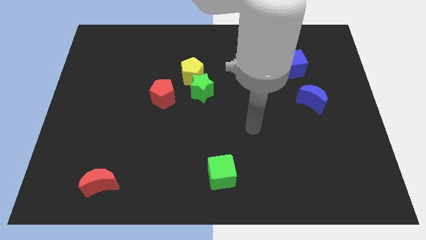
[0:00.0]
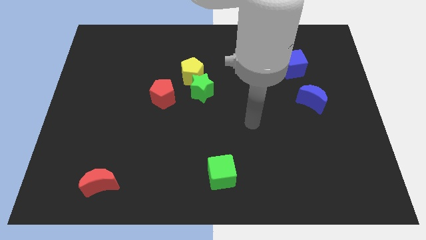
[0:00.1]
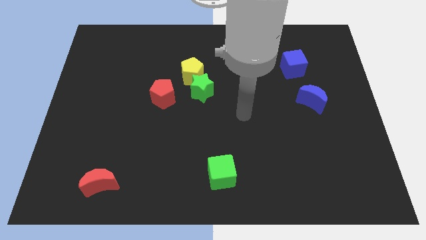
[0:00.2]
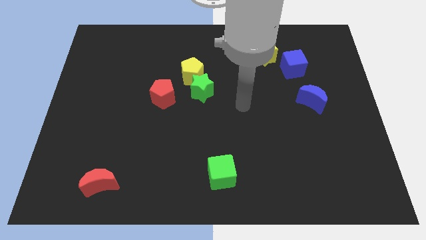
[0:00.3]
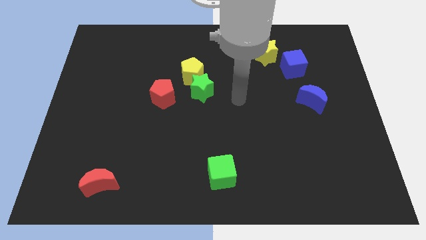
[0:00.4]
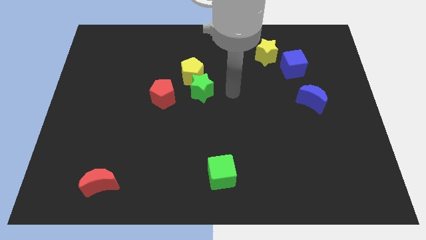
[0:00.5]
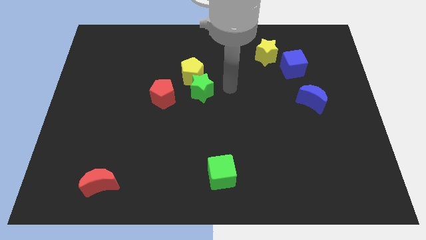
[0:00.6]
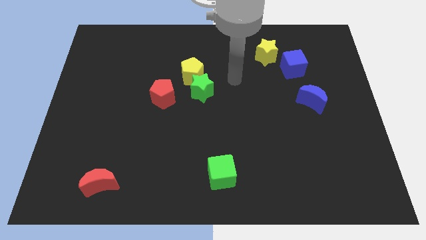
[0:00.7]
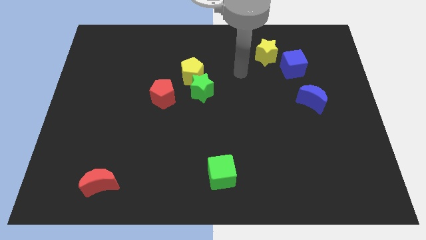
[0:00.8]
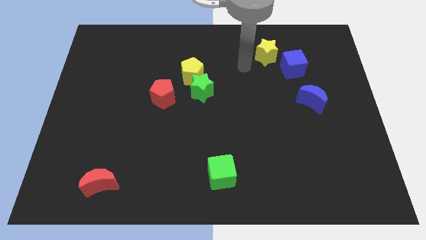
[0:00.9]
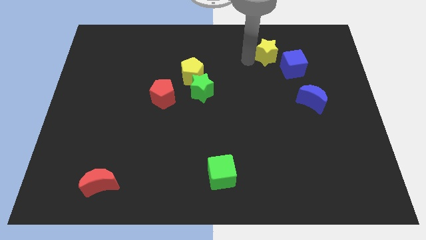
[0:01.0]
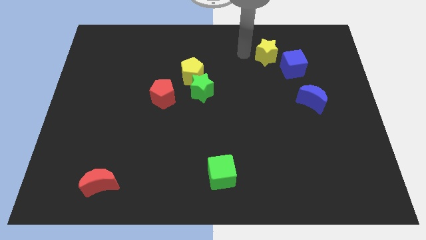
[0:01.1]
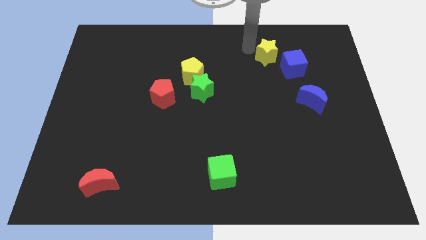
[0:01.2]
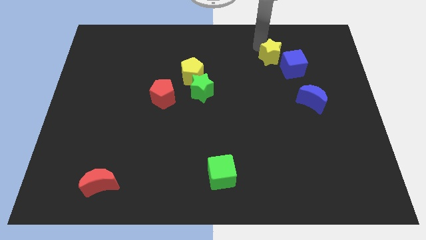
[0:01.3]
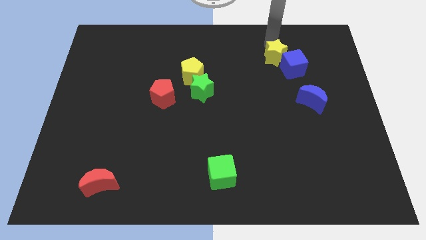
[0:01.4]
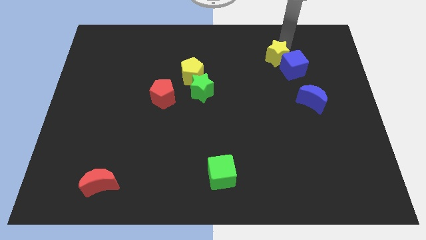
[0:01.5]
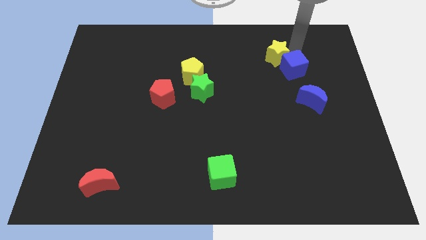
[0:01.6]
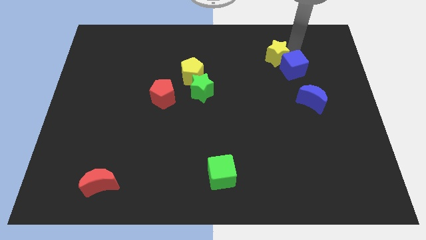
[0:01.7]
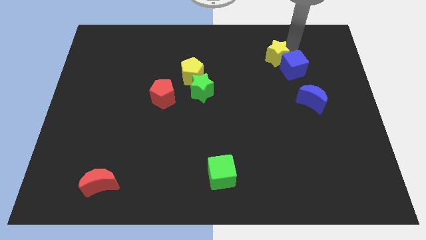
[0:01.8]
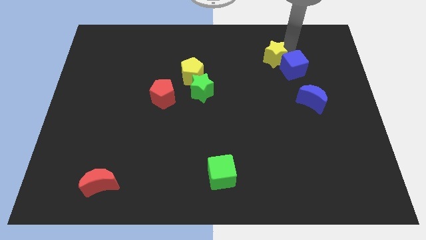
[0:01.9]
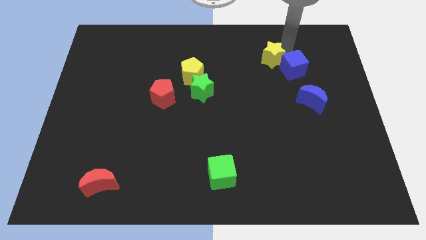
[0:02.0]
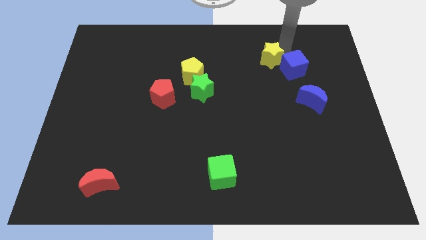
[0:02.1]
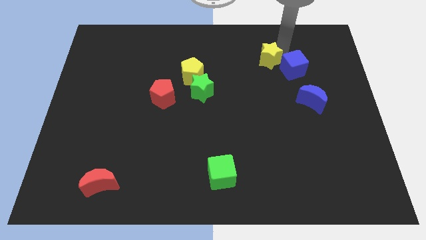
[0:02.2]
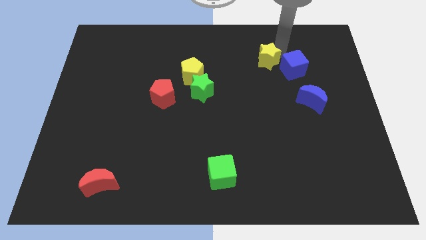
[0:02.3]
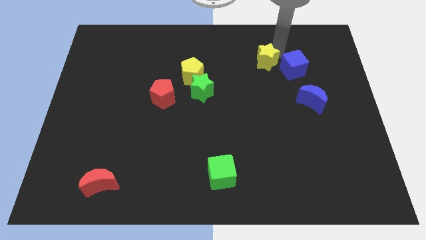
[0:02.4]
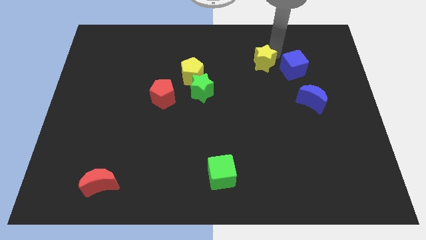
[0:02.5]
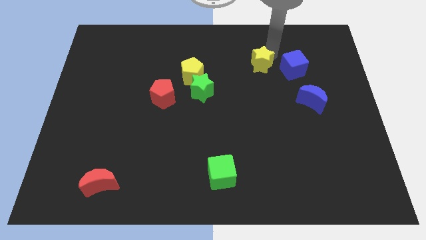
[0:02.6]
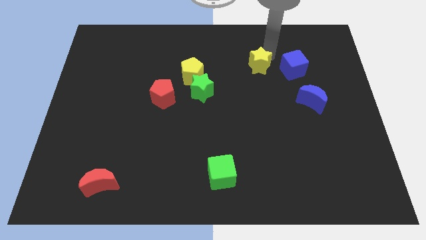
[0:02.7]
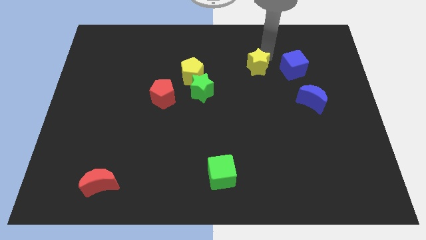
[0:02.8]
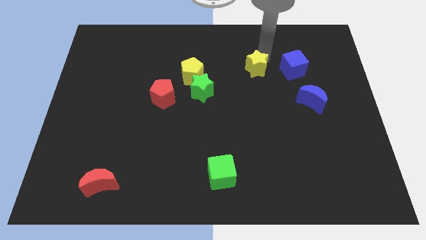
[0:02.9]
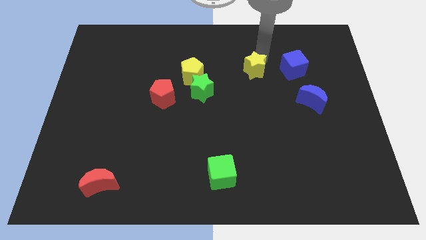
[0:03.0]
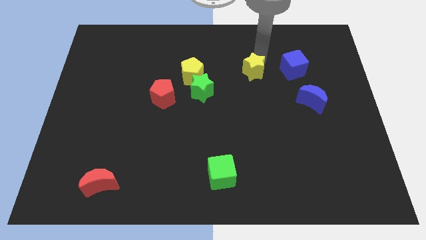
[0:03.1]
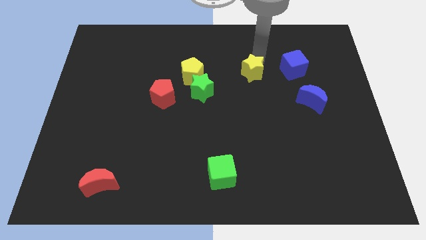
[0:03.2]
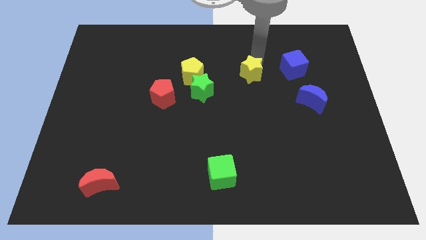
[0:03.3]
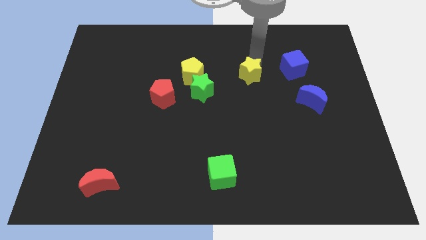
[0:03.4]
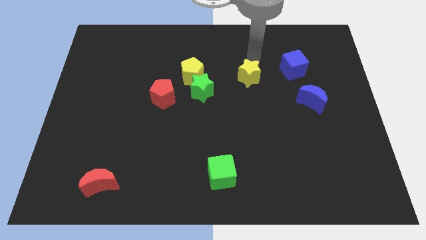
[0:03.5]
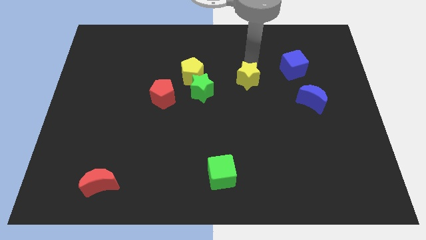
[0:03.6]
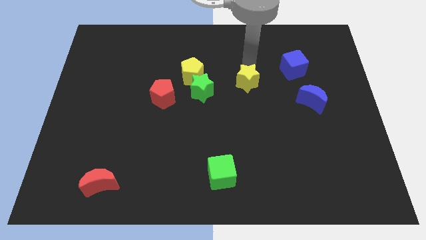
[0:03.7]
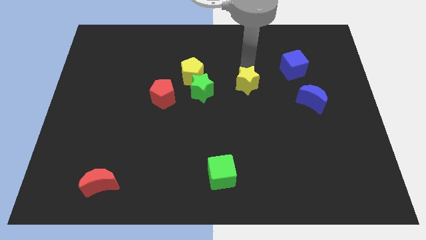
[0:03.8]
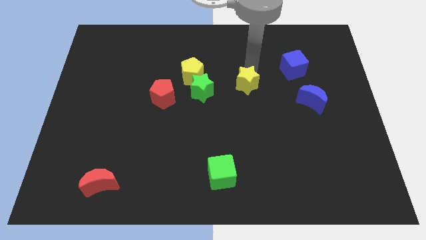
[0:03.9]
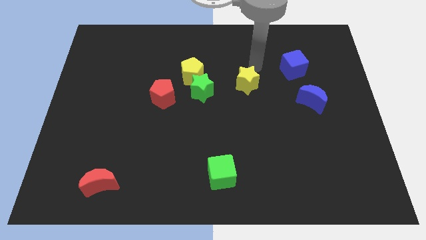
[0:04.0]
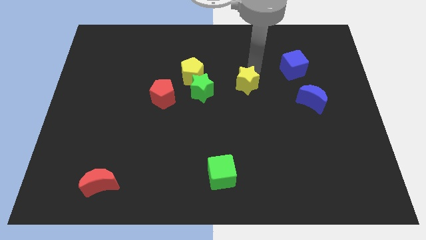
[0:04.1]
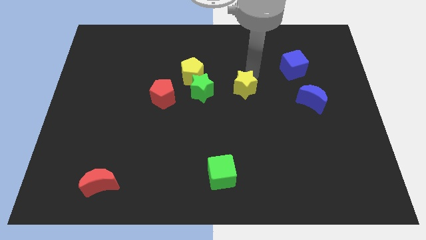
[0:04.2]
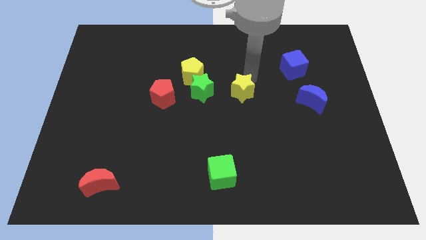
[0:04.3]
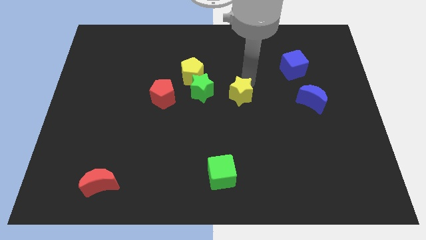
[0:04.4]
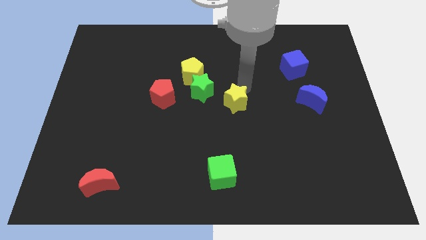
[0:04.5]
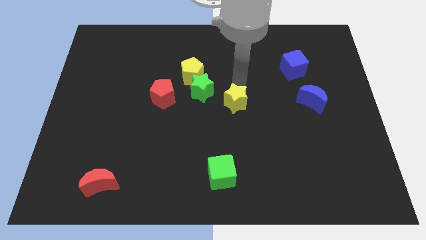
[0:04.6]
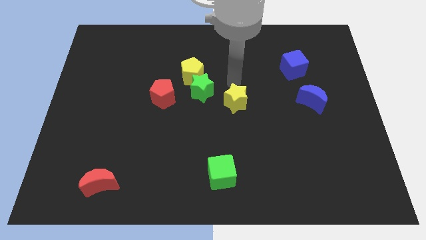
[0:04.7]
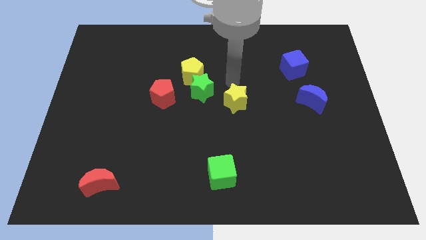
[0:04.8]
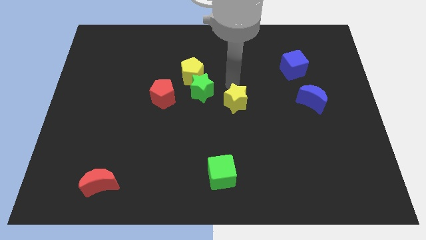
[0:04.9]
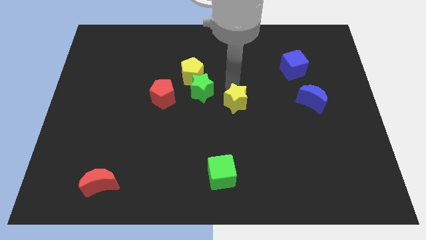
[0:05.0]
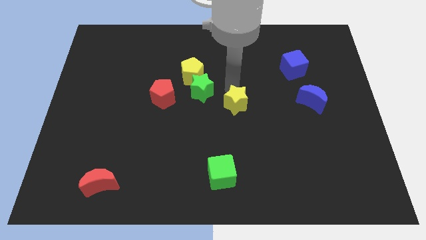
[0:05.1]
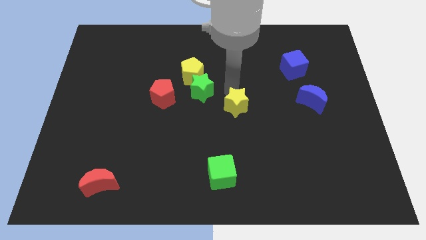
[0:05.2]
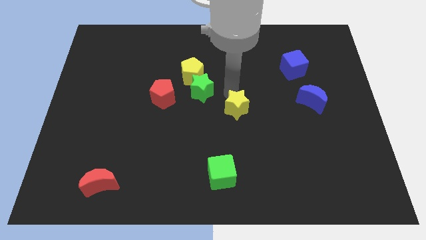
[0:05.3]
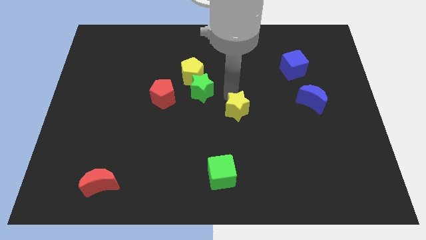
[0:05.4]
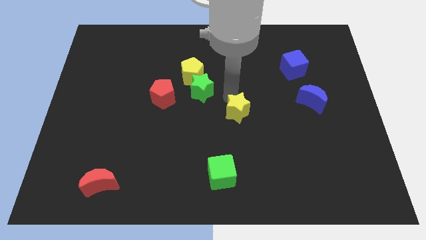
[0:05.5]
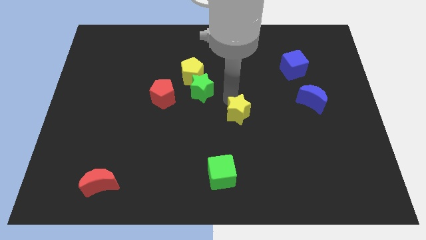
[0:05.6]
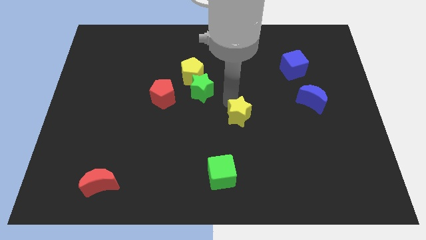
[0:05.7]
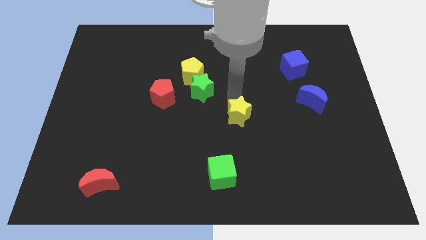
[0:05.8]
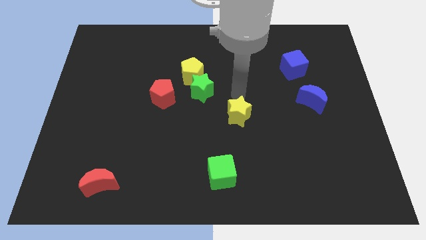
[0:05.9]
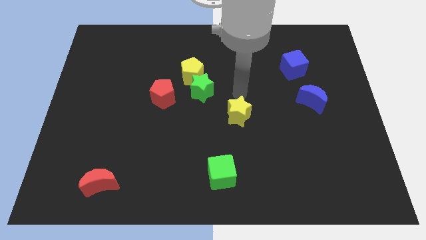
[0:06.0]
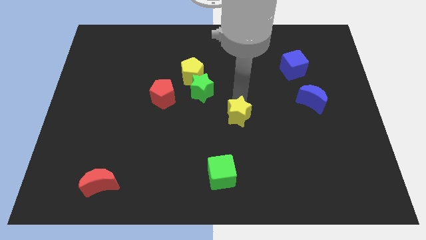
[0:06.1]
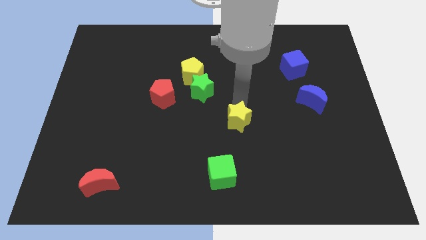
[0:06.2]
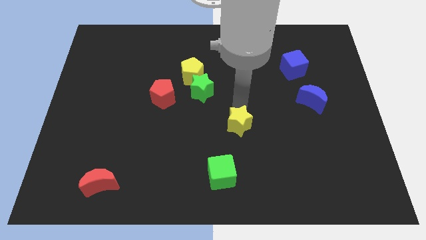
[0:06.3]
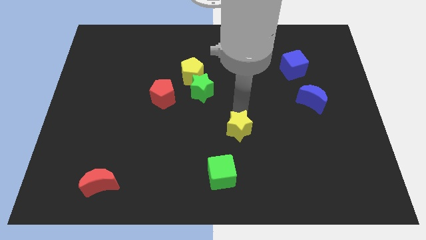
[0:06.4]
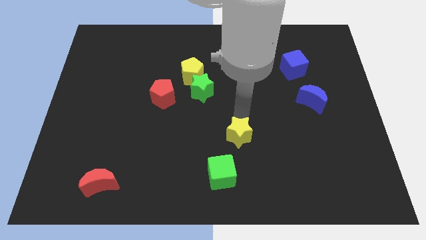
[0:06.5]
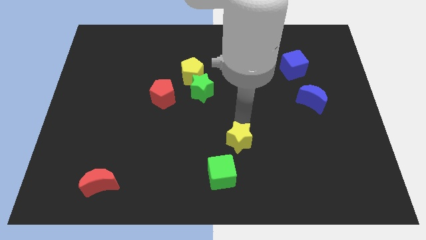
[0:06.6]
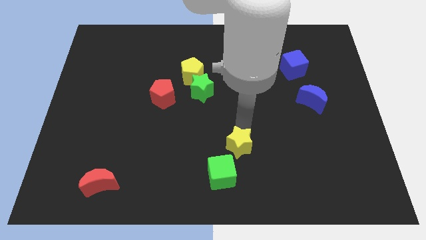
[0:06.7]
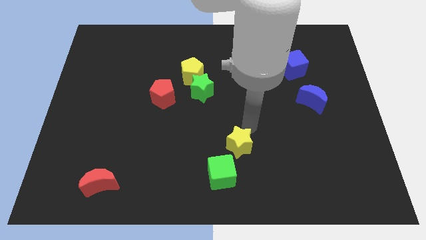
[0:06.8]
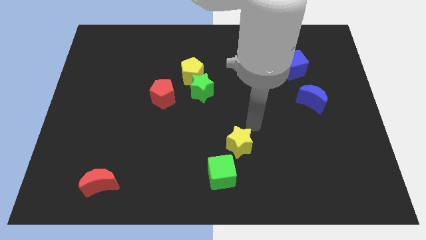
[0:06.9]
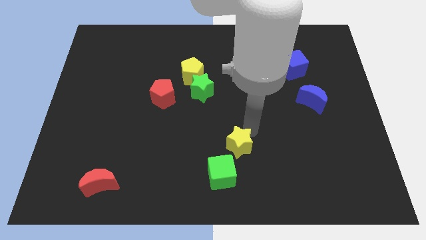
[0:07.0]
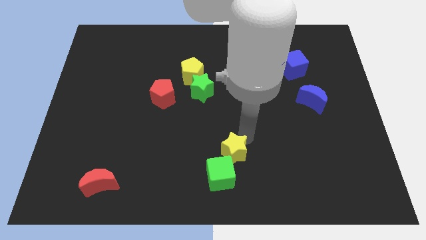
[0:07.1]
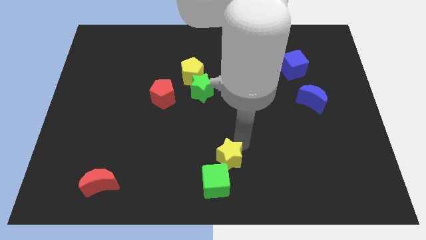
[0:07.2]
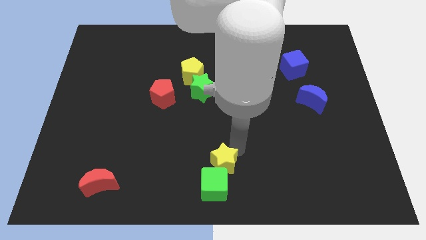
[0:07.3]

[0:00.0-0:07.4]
slide the yellow star close to the green cube
